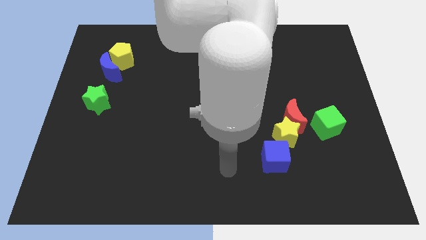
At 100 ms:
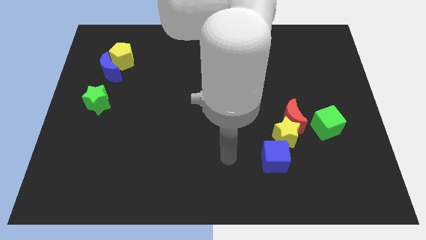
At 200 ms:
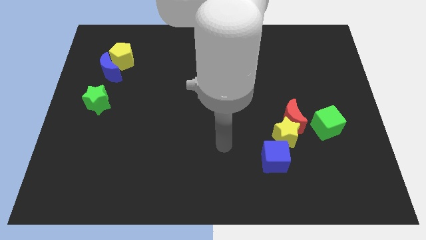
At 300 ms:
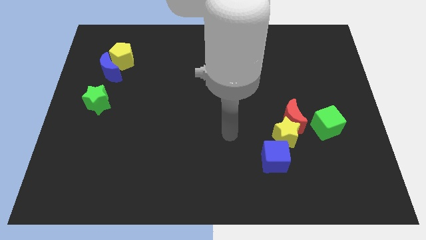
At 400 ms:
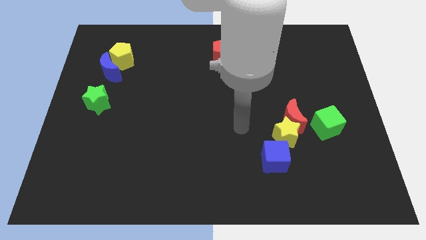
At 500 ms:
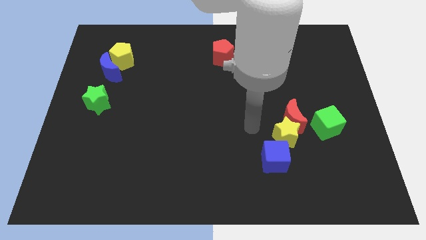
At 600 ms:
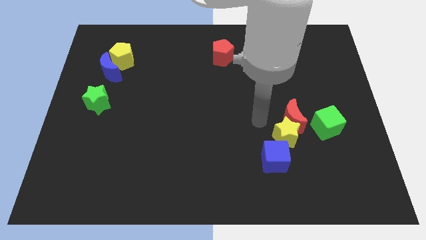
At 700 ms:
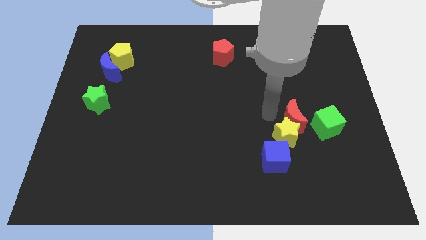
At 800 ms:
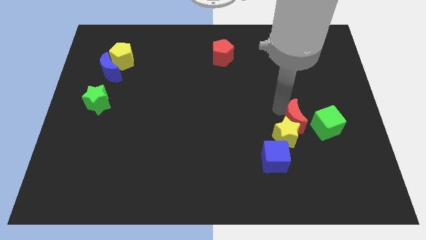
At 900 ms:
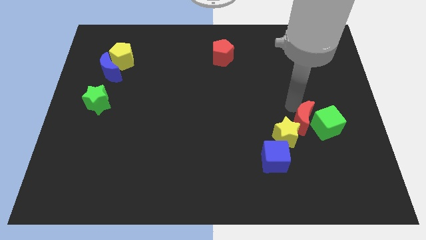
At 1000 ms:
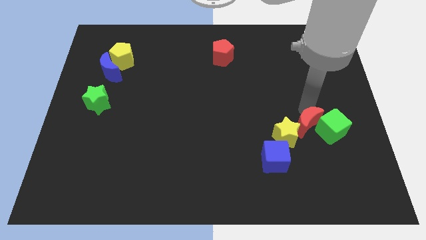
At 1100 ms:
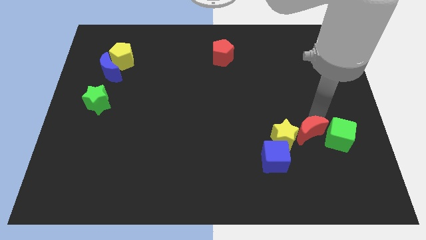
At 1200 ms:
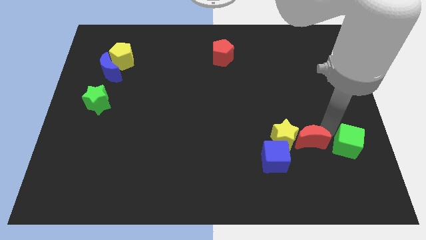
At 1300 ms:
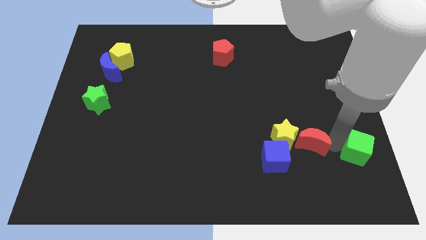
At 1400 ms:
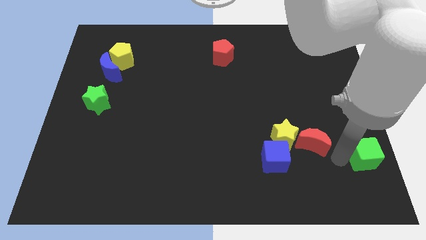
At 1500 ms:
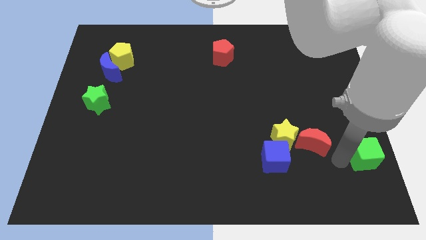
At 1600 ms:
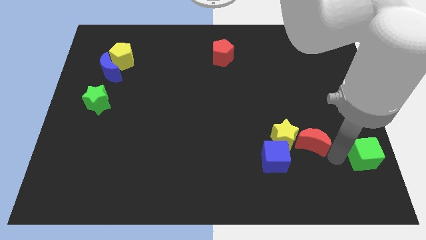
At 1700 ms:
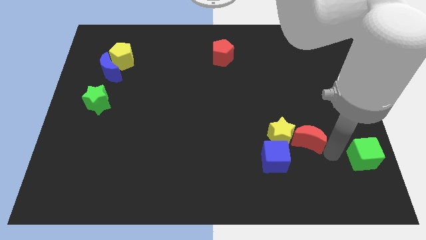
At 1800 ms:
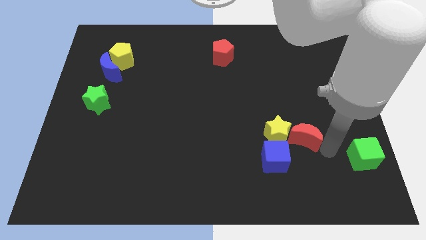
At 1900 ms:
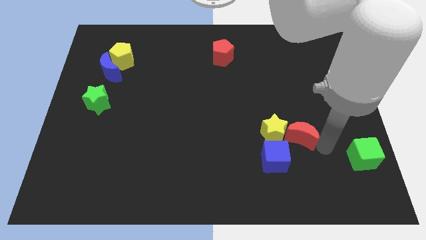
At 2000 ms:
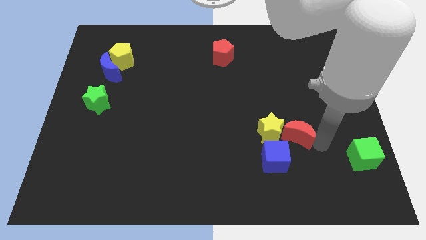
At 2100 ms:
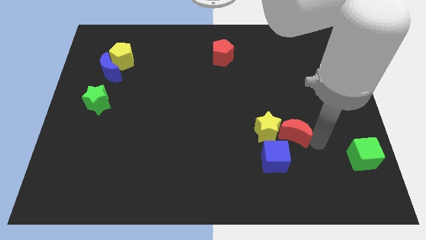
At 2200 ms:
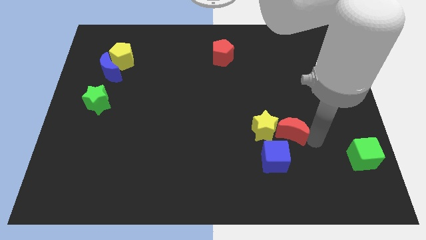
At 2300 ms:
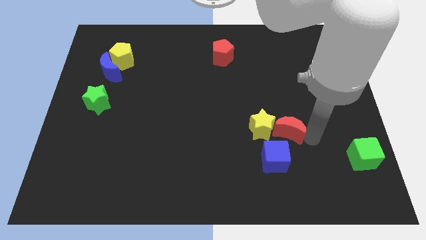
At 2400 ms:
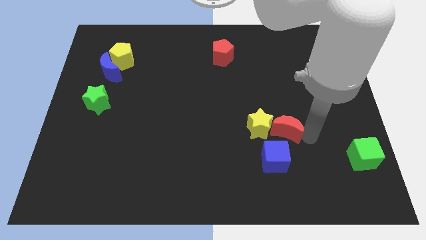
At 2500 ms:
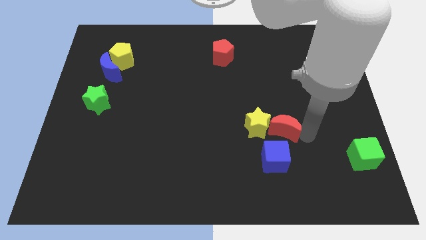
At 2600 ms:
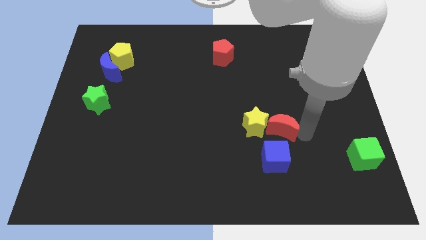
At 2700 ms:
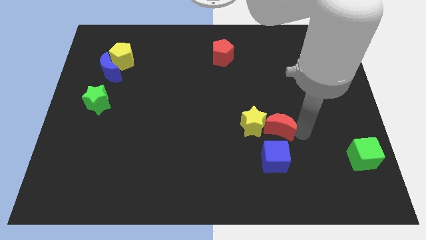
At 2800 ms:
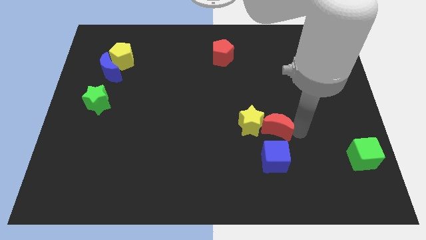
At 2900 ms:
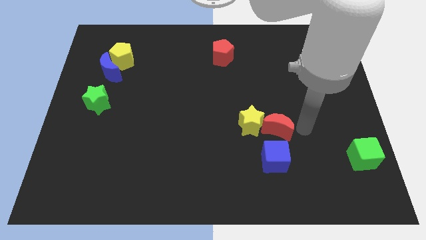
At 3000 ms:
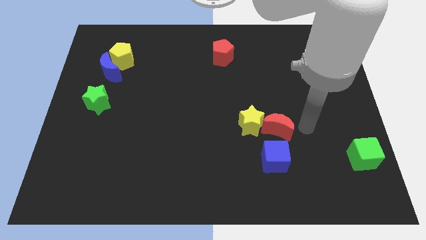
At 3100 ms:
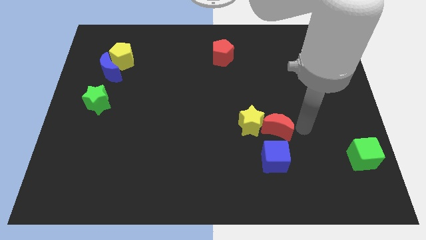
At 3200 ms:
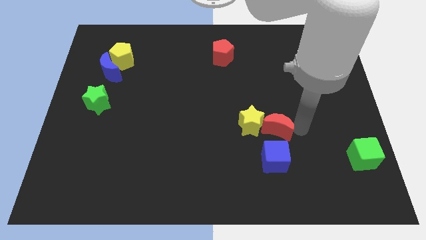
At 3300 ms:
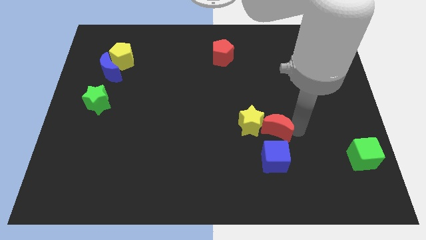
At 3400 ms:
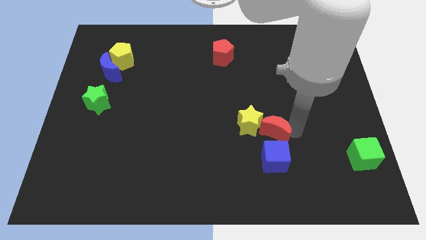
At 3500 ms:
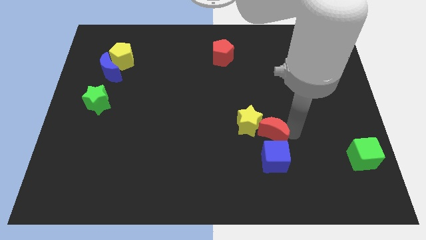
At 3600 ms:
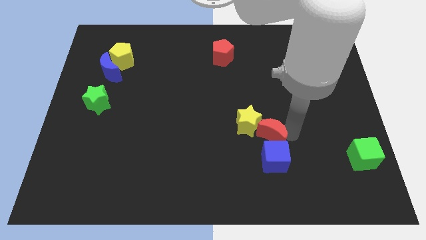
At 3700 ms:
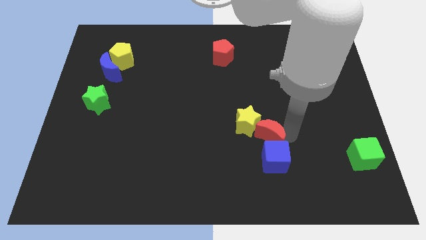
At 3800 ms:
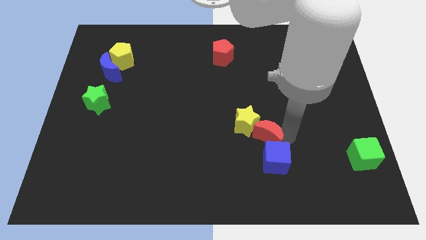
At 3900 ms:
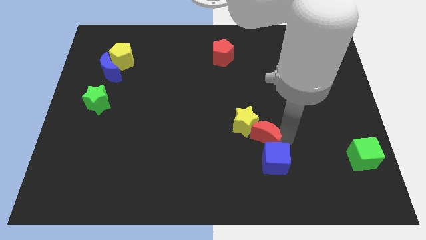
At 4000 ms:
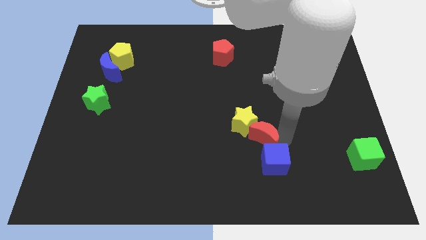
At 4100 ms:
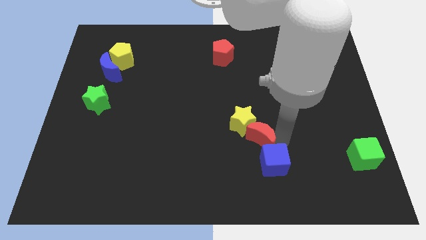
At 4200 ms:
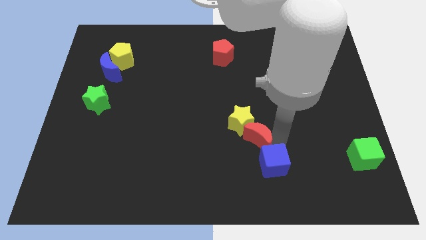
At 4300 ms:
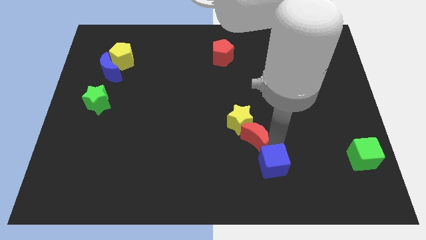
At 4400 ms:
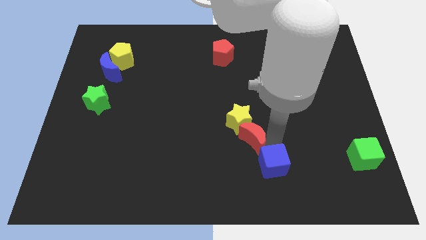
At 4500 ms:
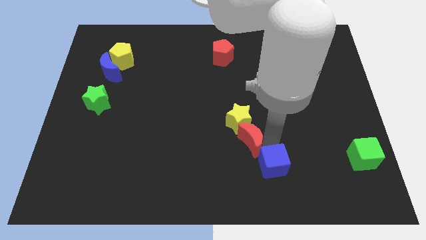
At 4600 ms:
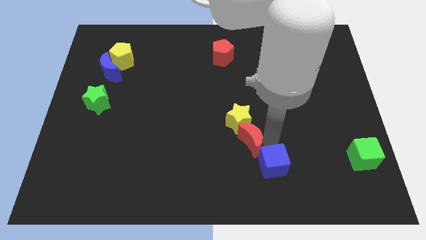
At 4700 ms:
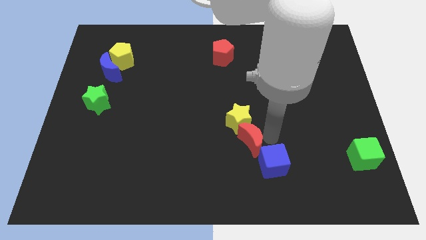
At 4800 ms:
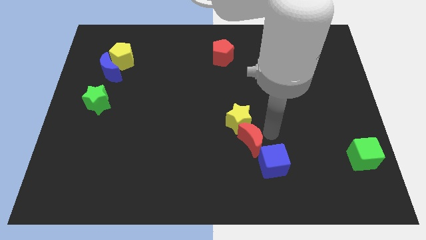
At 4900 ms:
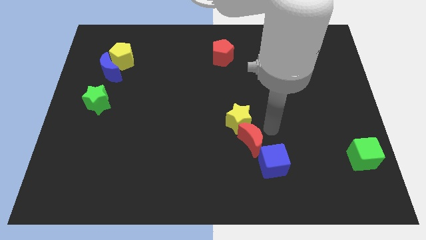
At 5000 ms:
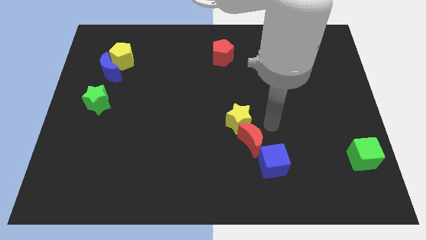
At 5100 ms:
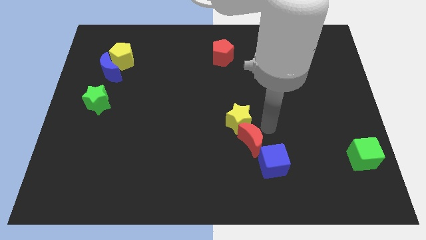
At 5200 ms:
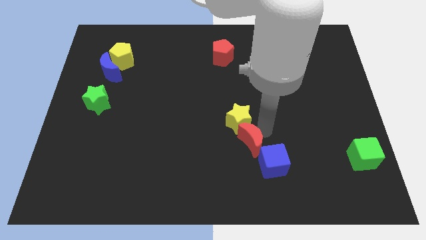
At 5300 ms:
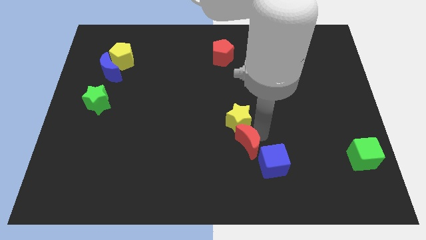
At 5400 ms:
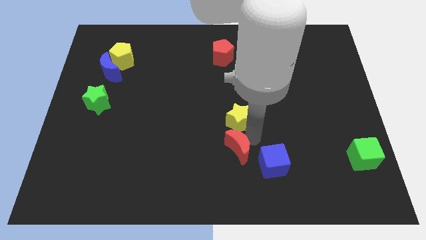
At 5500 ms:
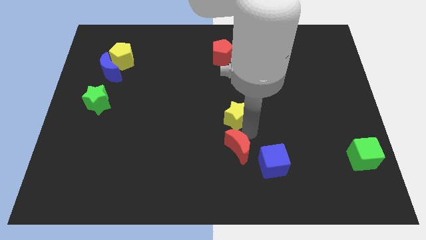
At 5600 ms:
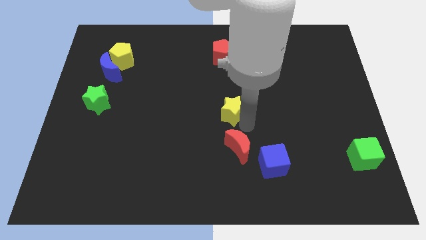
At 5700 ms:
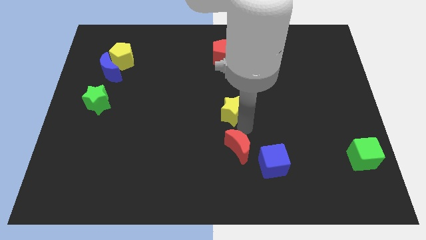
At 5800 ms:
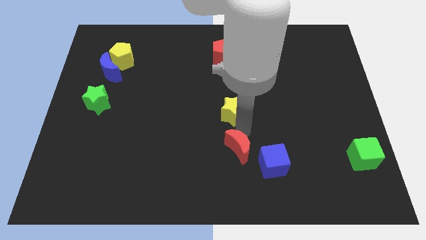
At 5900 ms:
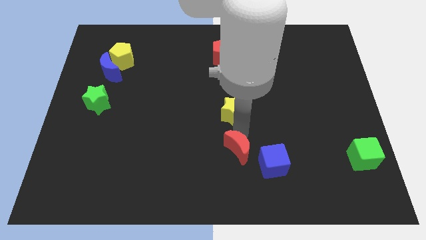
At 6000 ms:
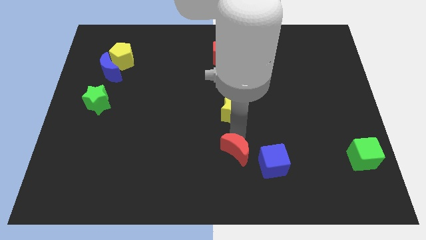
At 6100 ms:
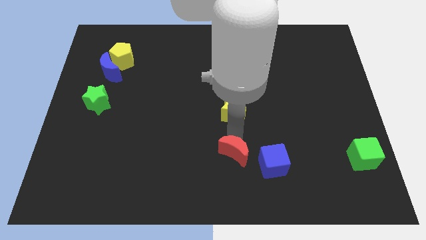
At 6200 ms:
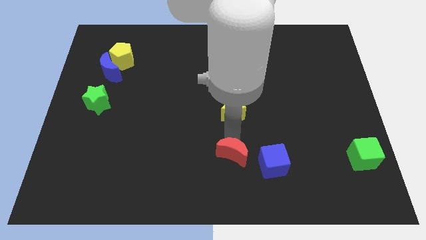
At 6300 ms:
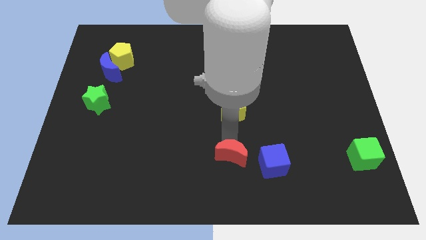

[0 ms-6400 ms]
put the red moon to the bottom

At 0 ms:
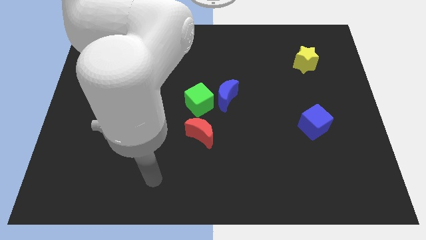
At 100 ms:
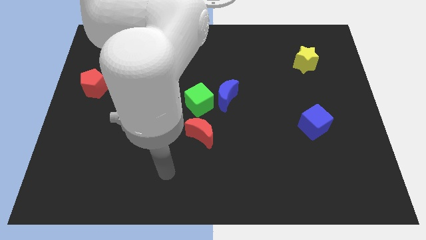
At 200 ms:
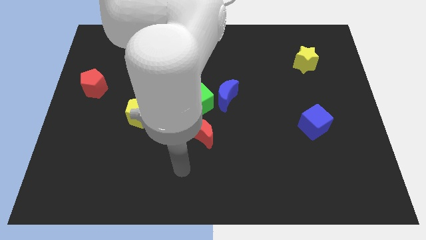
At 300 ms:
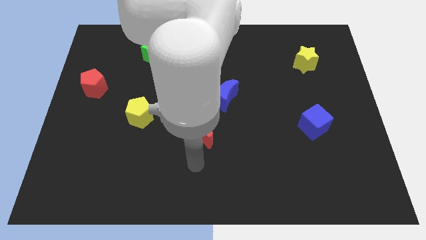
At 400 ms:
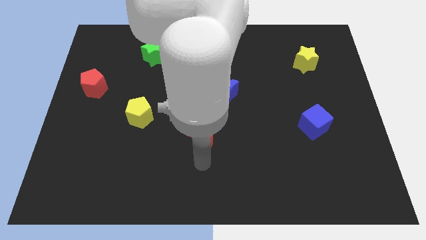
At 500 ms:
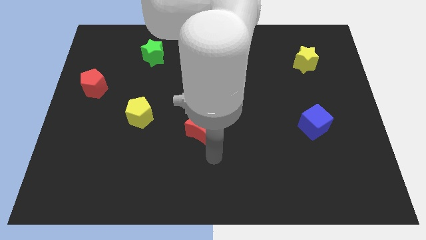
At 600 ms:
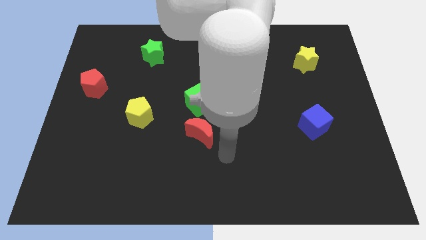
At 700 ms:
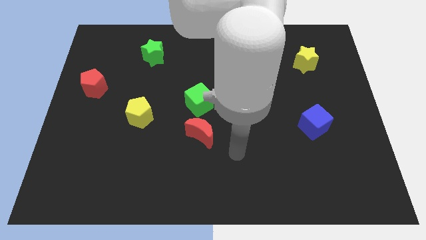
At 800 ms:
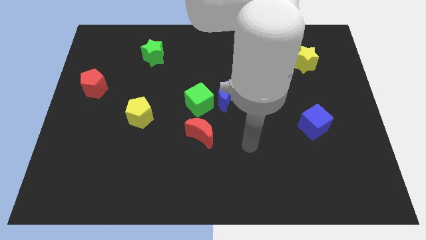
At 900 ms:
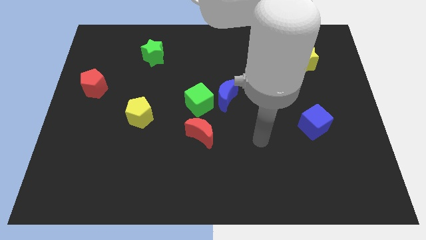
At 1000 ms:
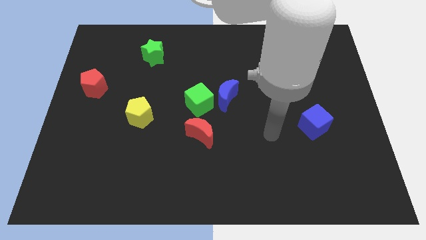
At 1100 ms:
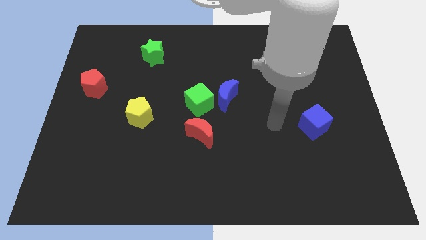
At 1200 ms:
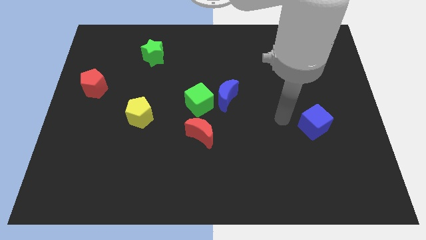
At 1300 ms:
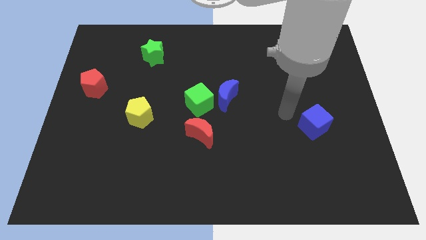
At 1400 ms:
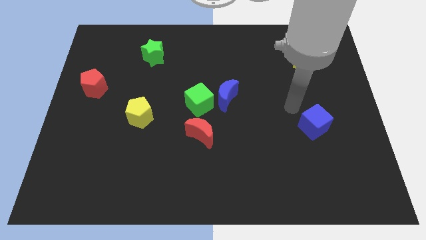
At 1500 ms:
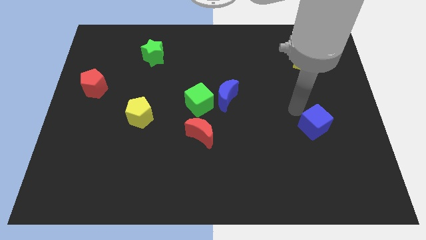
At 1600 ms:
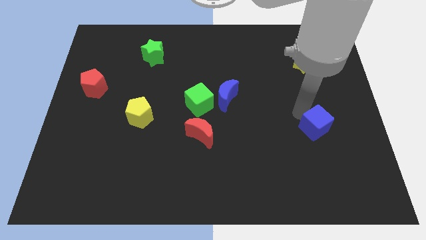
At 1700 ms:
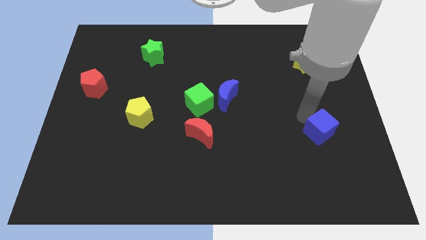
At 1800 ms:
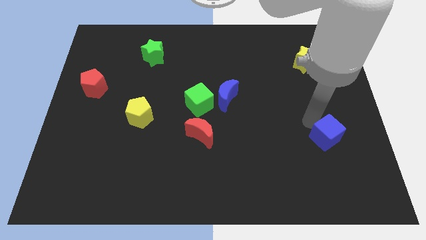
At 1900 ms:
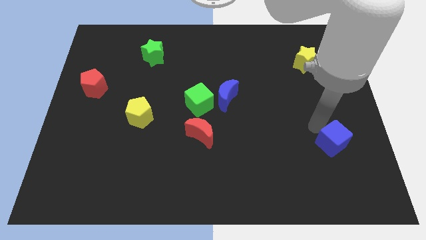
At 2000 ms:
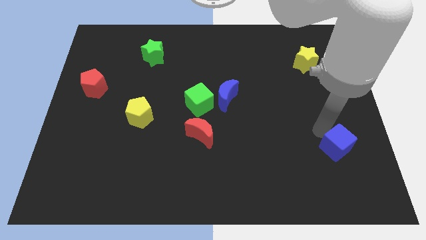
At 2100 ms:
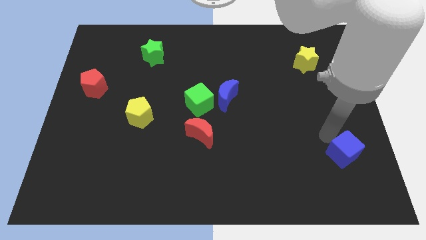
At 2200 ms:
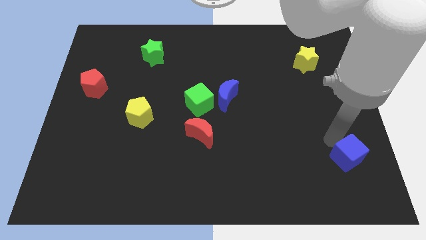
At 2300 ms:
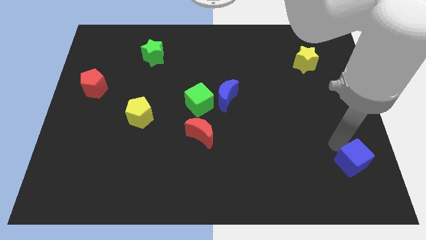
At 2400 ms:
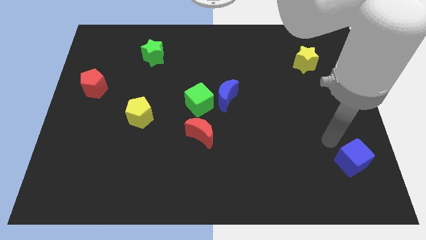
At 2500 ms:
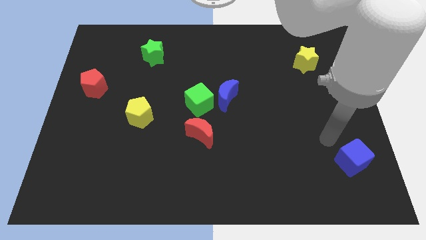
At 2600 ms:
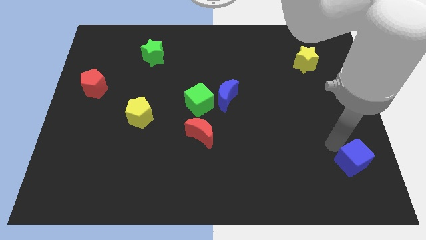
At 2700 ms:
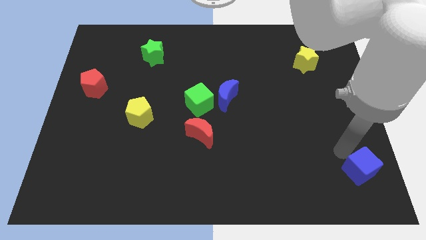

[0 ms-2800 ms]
slide the blue cube to the lower right corner
